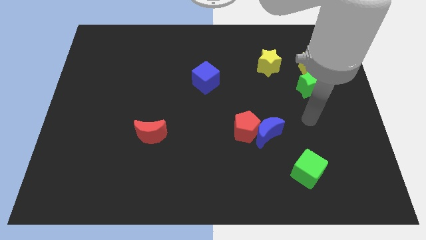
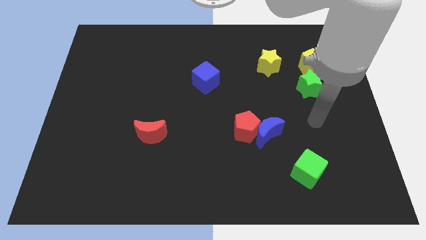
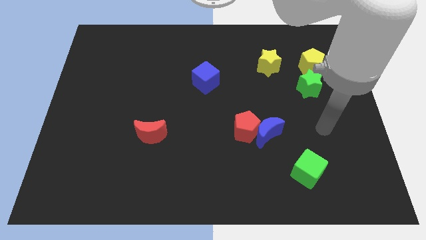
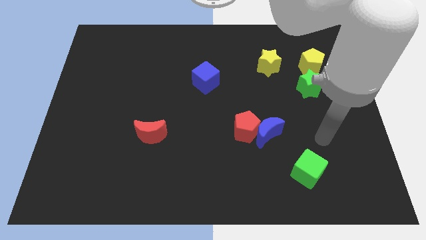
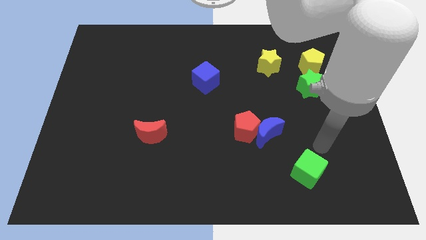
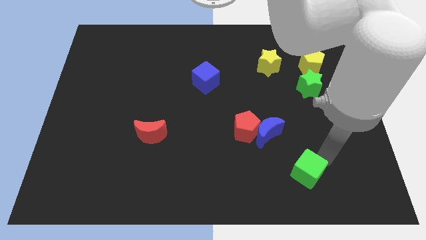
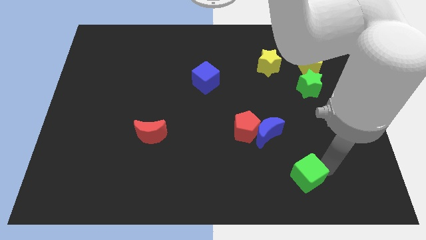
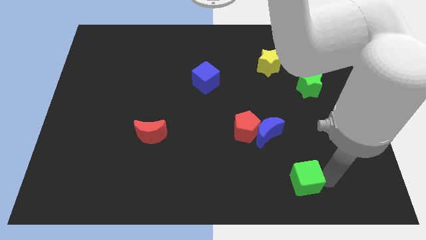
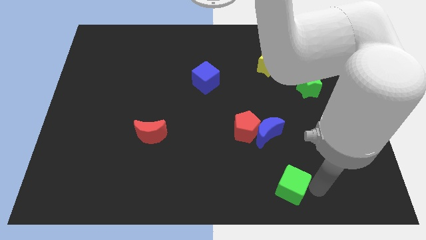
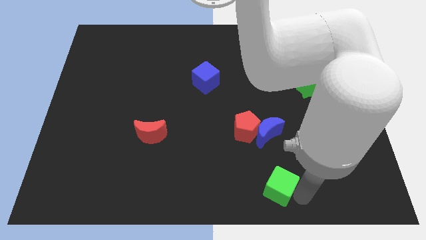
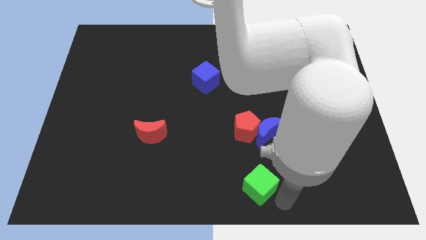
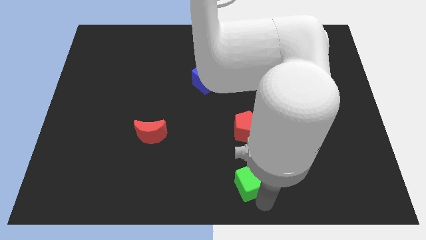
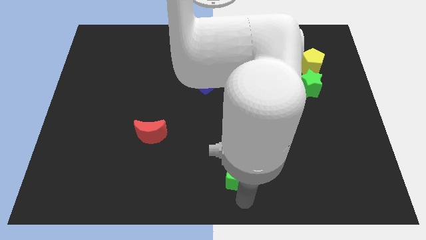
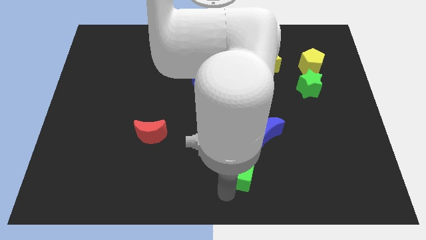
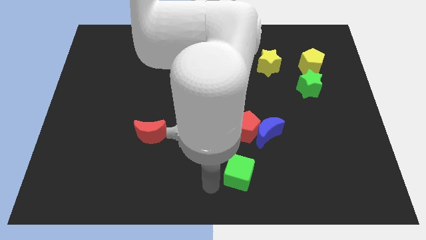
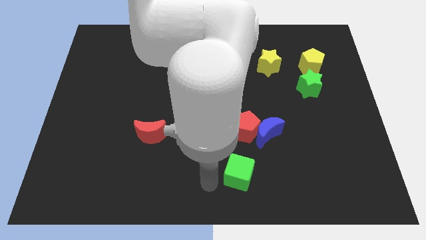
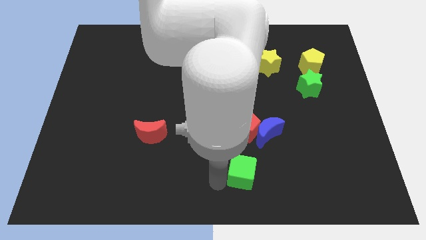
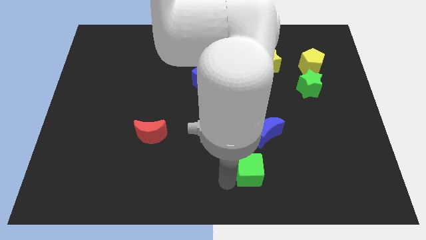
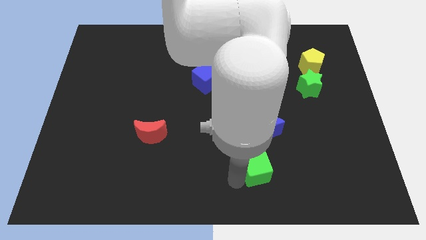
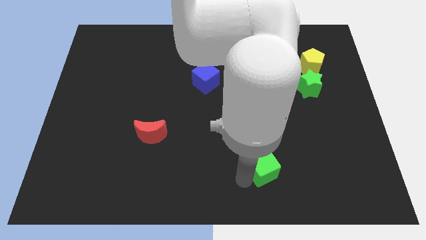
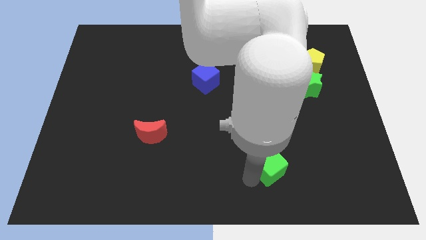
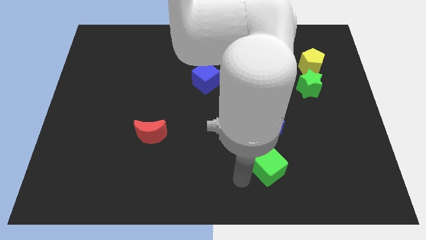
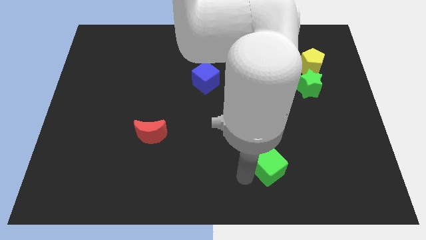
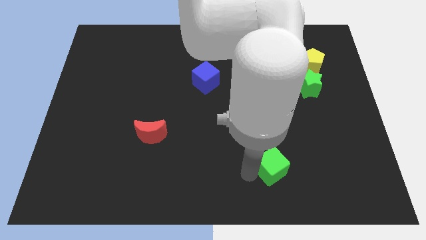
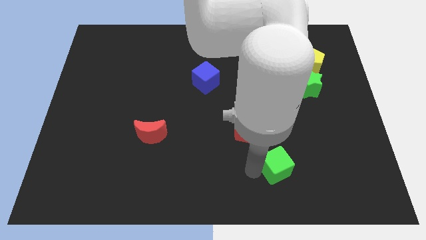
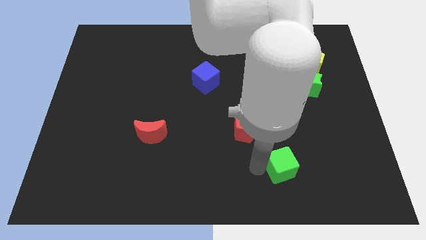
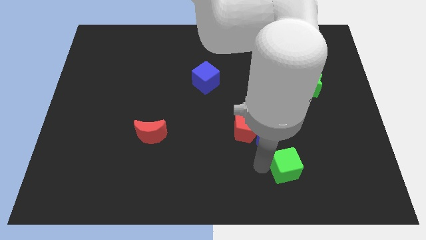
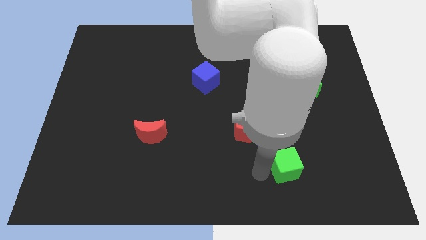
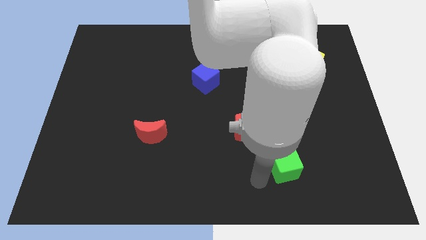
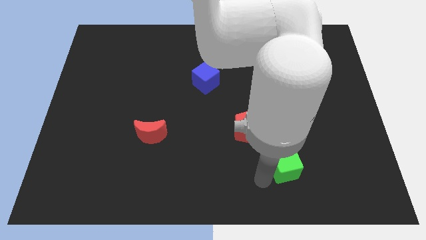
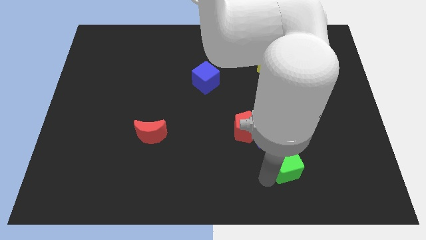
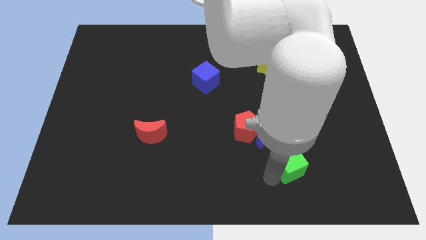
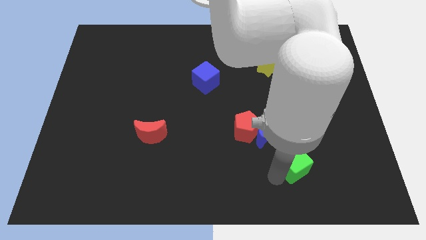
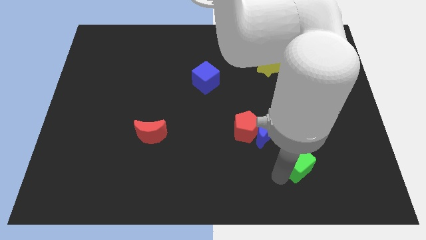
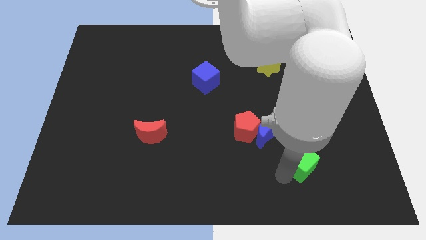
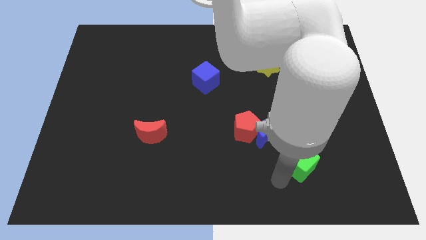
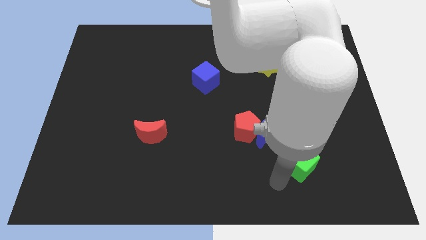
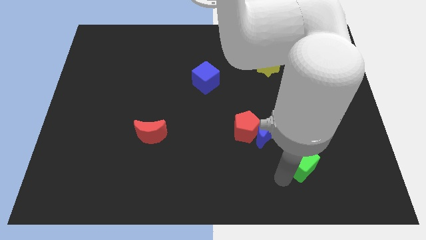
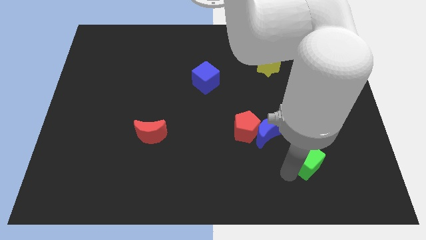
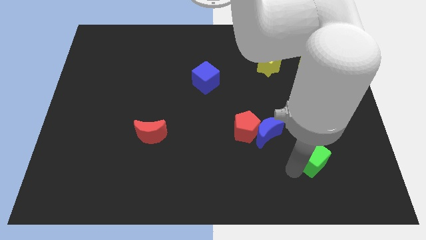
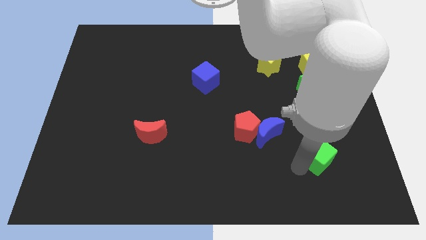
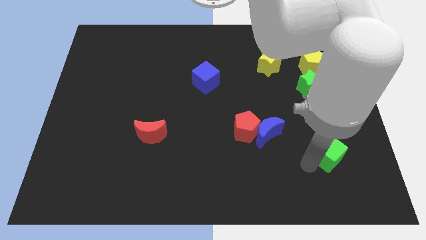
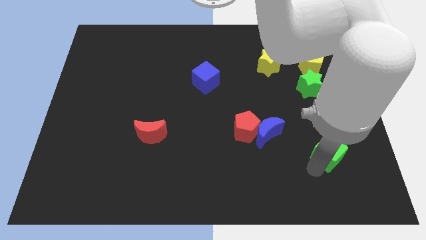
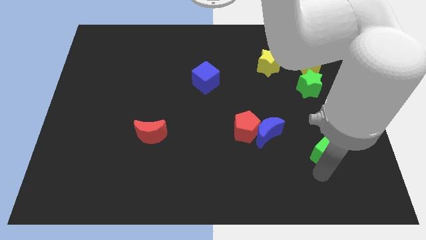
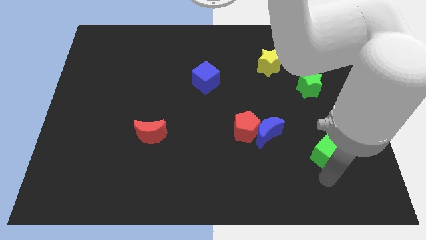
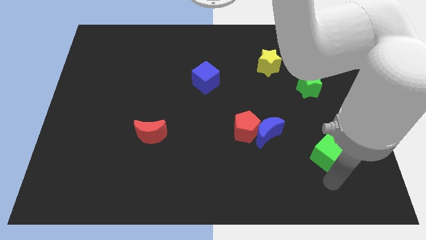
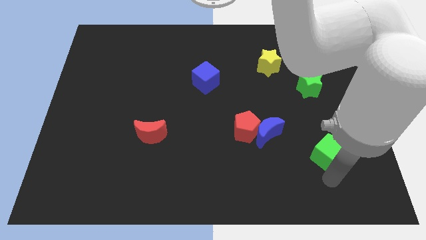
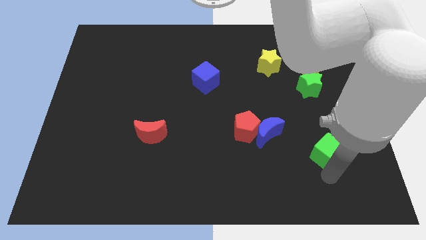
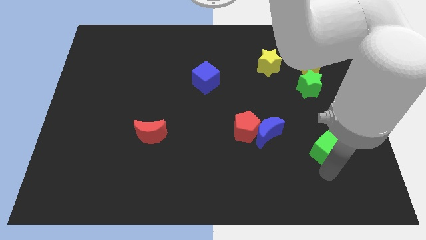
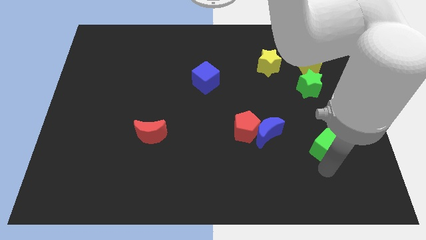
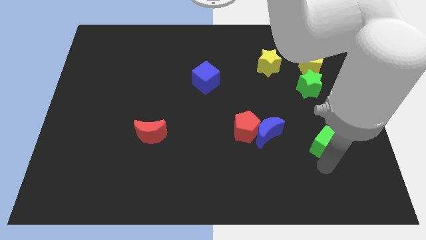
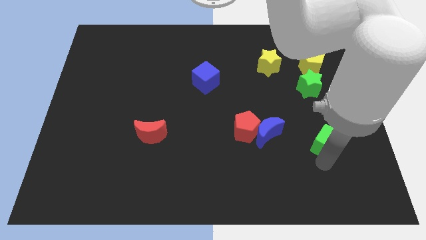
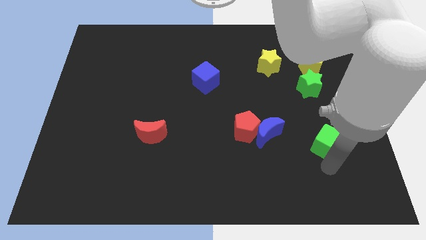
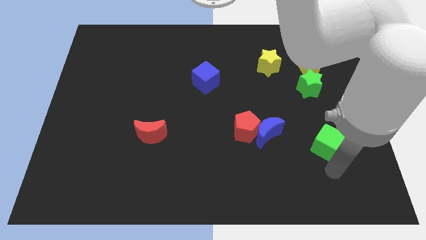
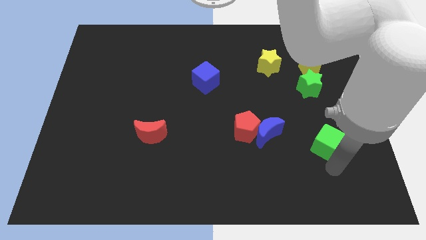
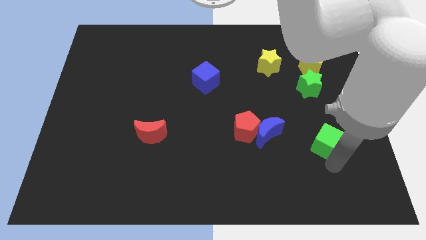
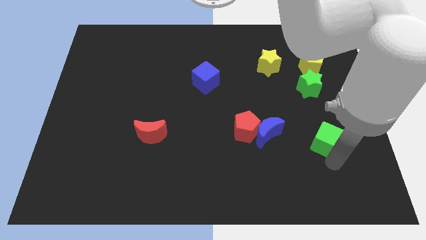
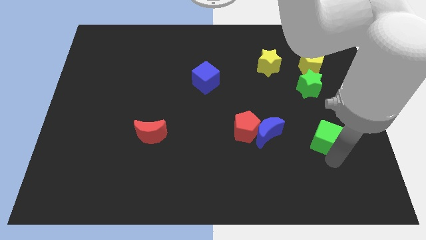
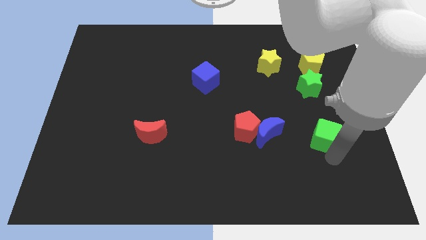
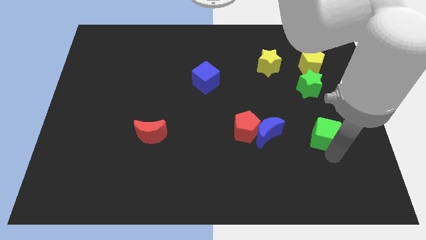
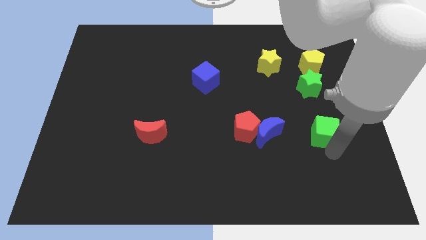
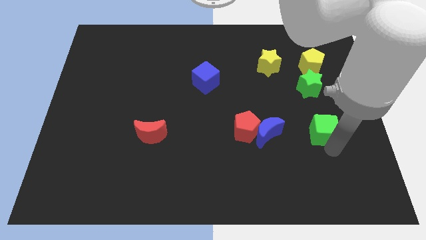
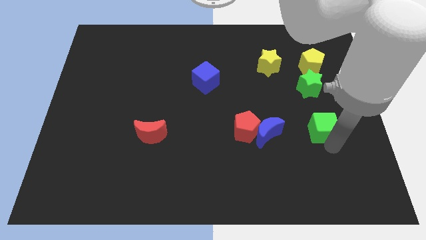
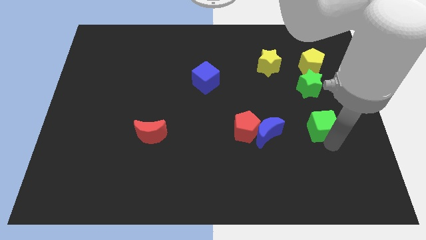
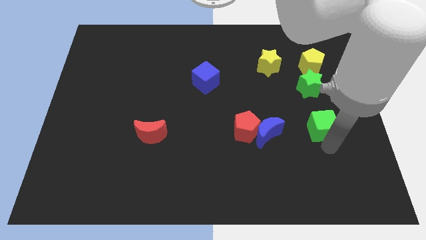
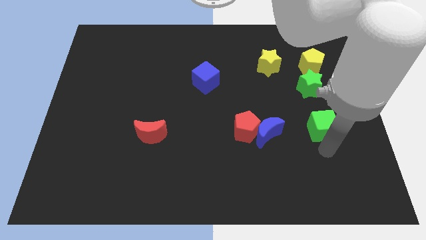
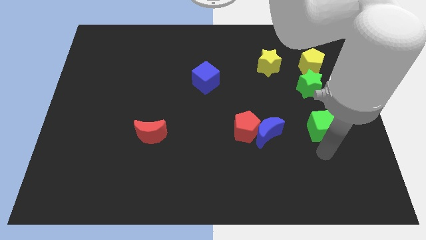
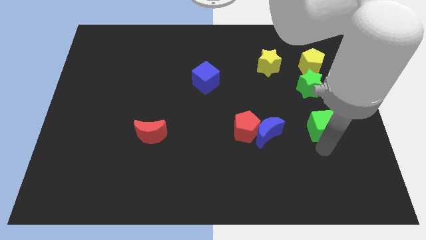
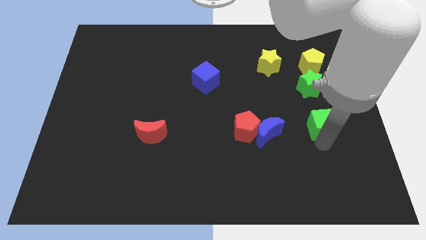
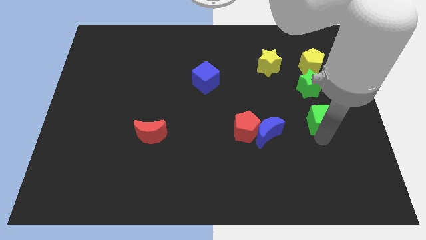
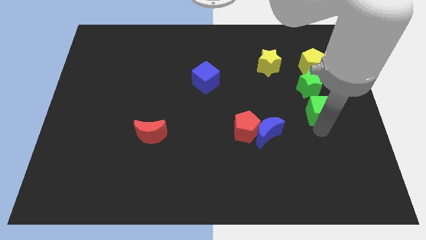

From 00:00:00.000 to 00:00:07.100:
push the green cube to the bottom side of the yellow pentagon

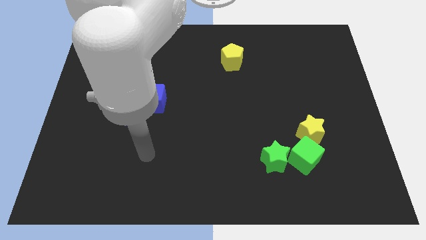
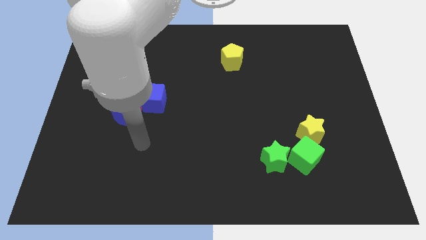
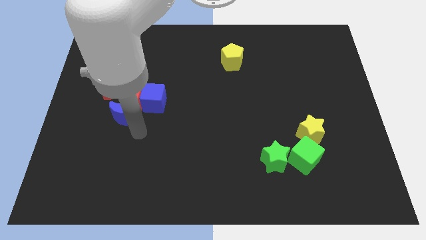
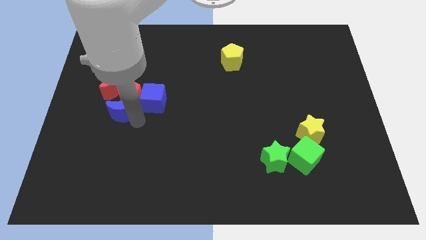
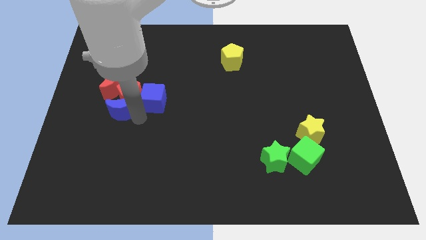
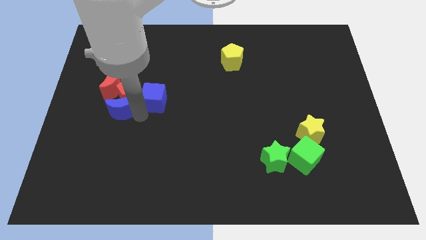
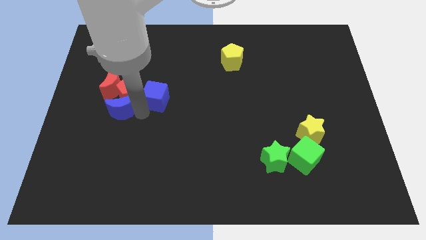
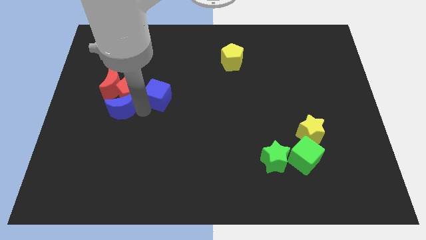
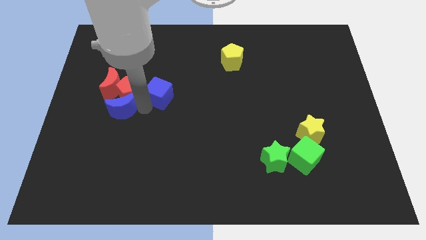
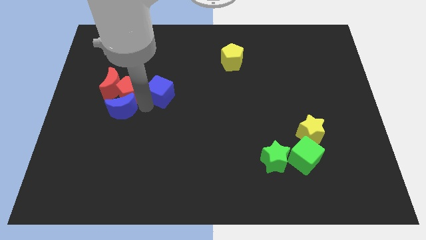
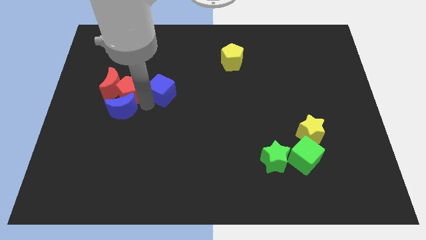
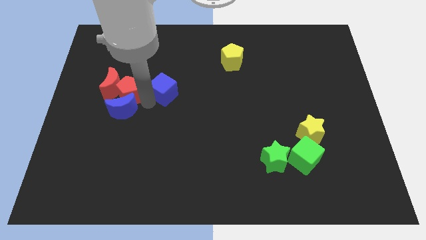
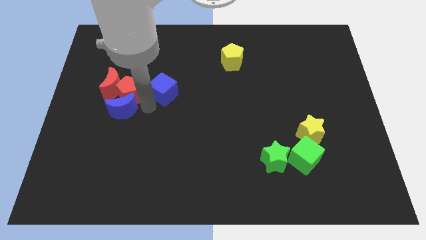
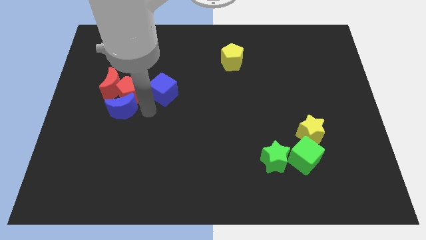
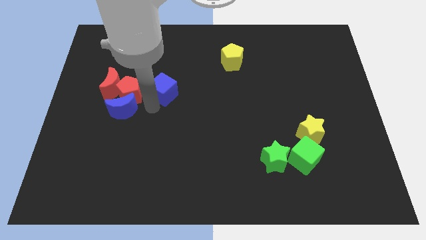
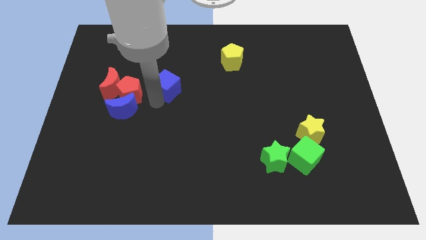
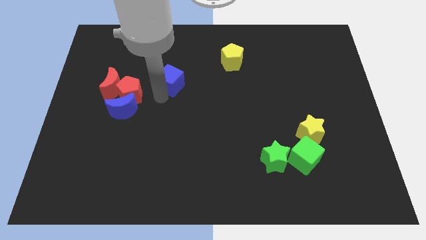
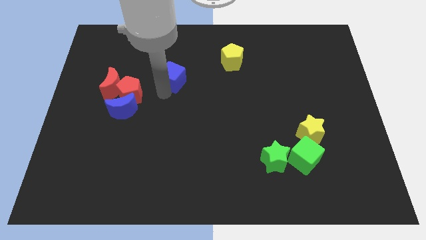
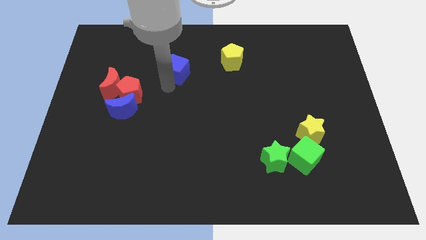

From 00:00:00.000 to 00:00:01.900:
put the blue cube left of the yellow pentagon
